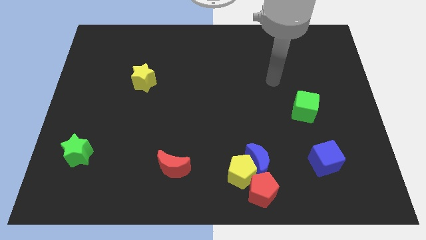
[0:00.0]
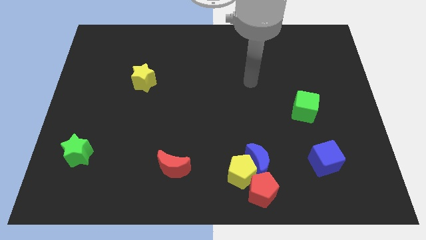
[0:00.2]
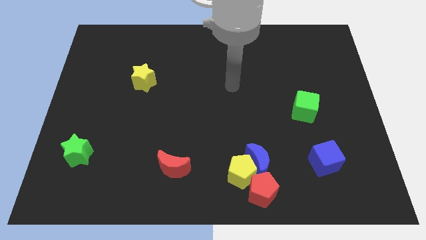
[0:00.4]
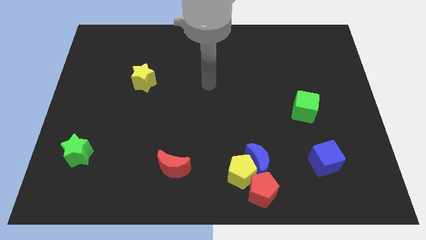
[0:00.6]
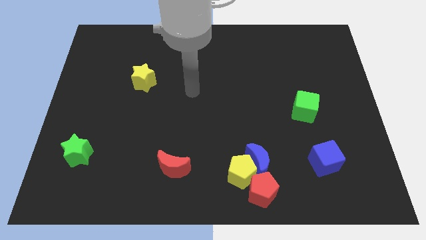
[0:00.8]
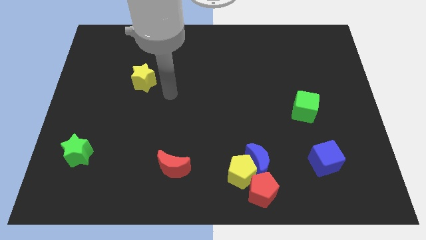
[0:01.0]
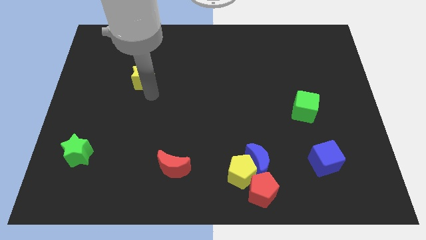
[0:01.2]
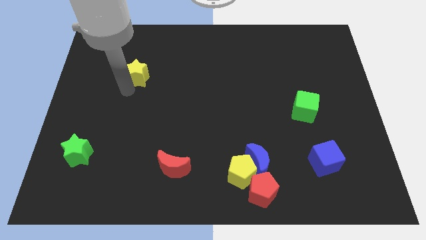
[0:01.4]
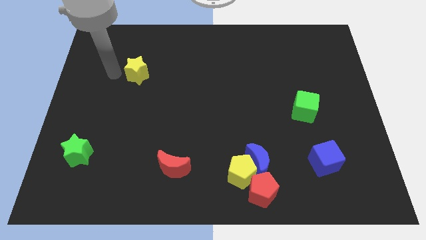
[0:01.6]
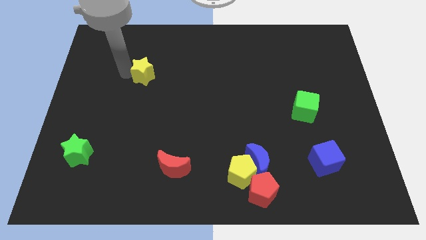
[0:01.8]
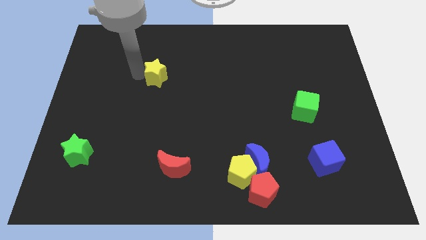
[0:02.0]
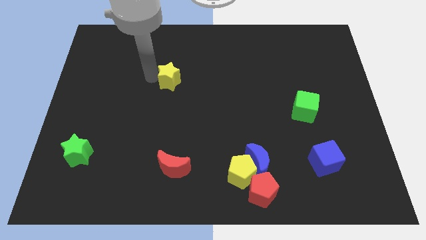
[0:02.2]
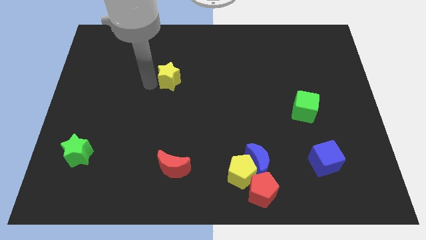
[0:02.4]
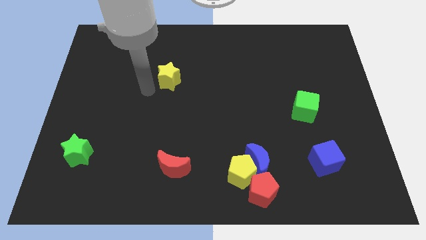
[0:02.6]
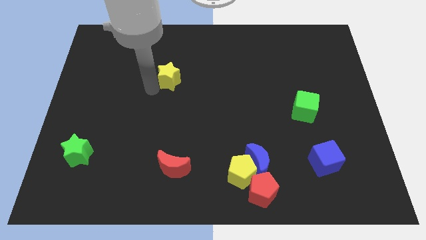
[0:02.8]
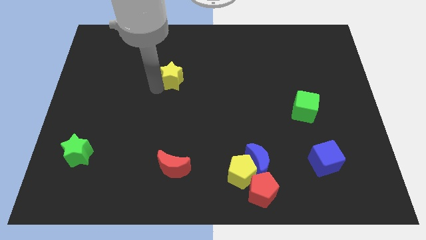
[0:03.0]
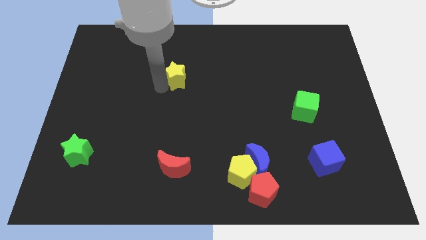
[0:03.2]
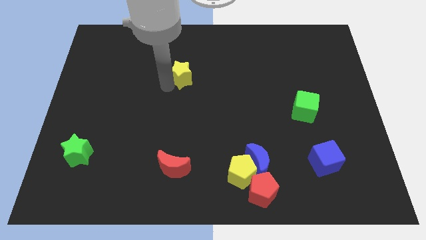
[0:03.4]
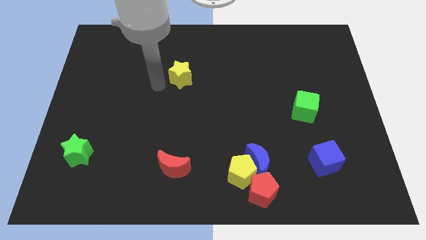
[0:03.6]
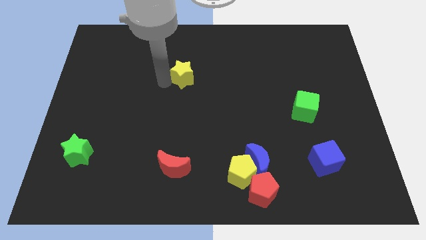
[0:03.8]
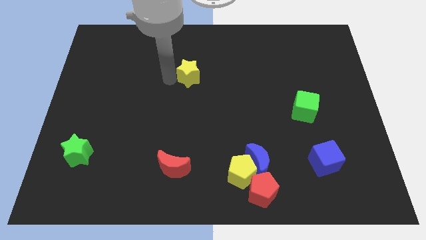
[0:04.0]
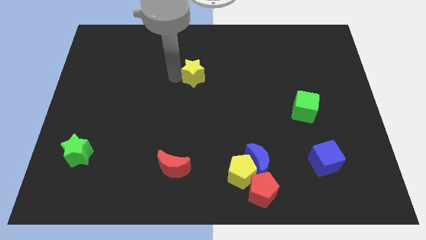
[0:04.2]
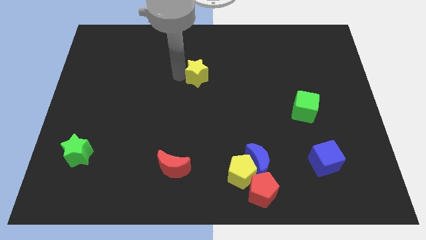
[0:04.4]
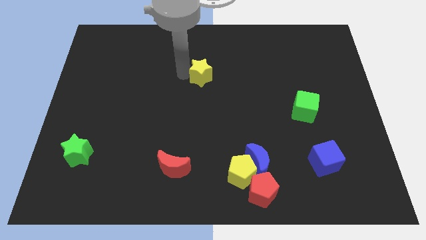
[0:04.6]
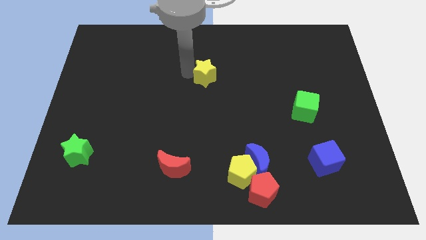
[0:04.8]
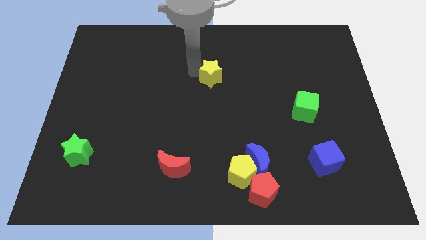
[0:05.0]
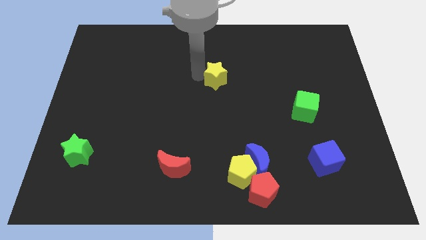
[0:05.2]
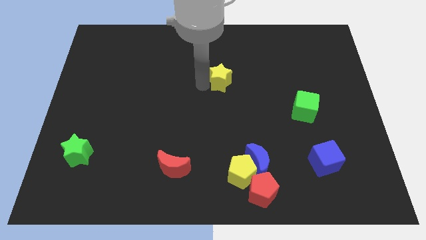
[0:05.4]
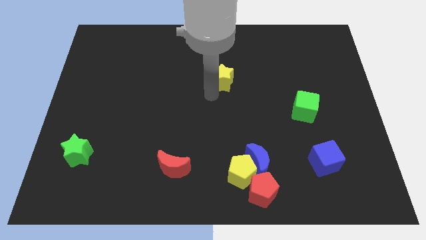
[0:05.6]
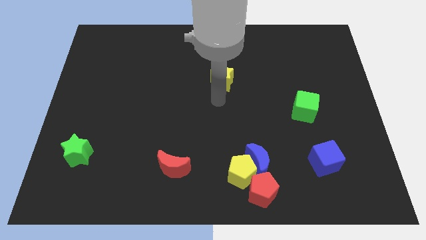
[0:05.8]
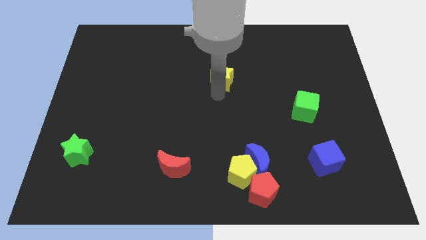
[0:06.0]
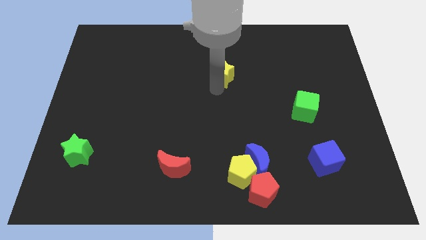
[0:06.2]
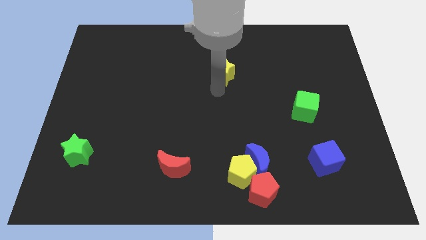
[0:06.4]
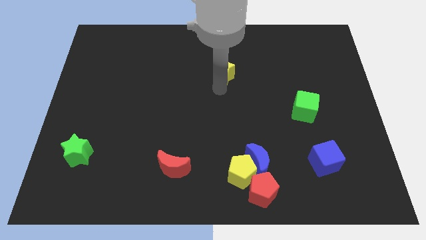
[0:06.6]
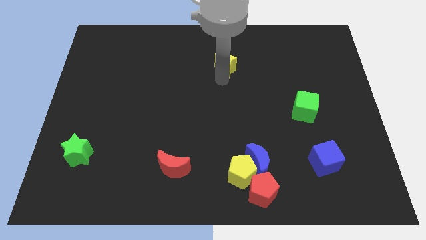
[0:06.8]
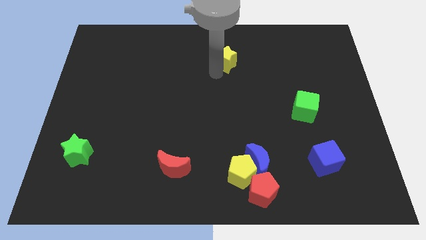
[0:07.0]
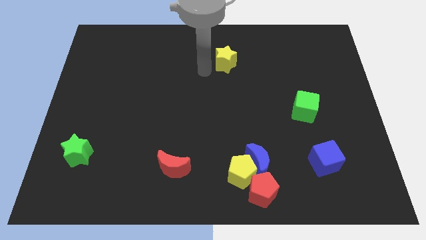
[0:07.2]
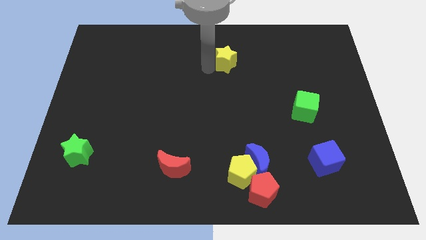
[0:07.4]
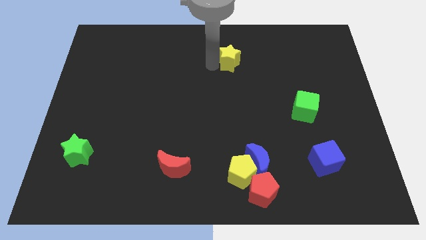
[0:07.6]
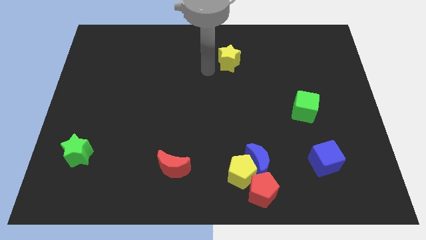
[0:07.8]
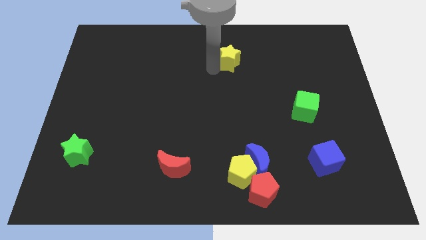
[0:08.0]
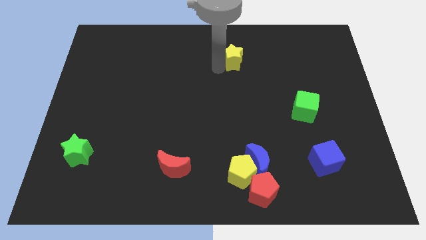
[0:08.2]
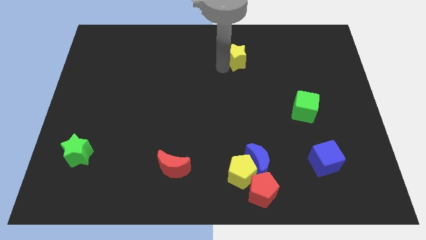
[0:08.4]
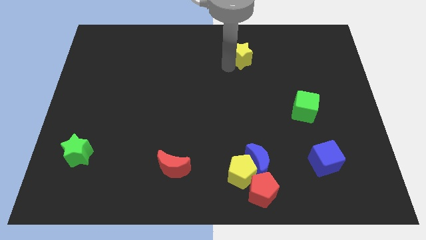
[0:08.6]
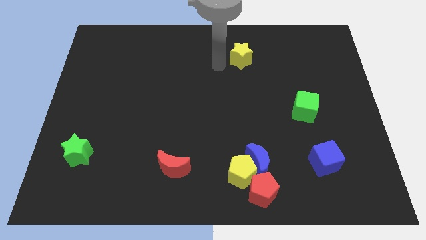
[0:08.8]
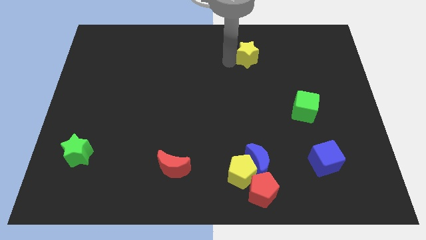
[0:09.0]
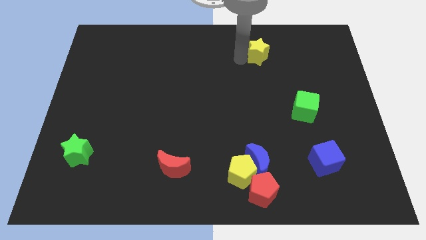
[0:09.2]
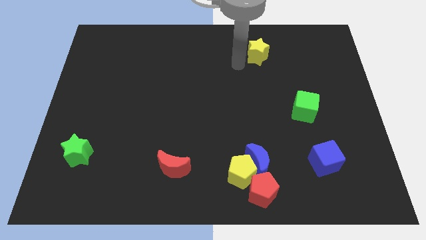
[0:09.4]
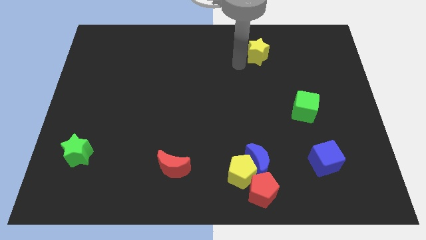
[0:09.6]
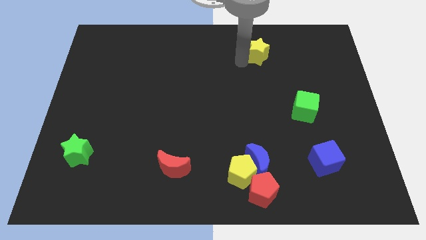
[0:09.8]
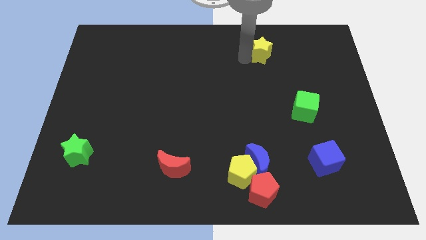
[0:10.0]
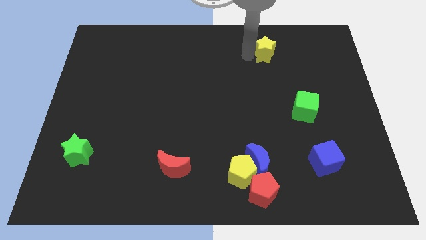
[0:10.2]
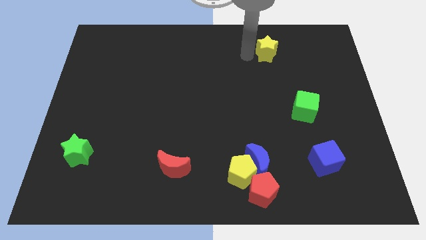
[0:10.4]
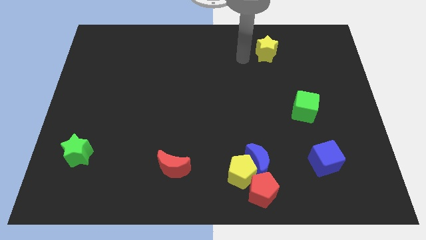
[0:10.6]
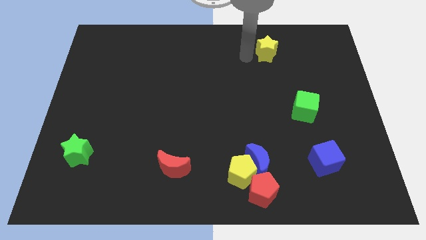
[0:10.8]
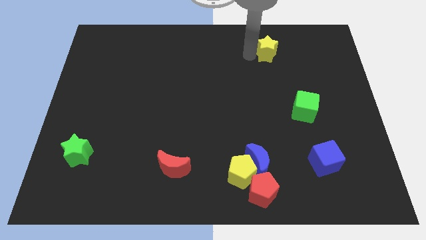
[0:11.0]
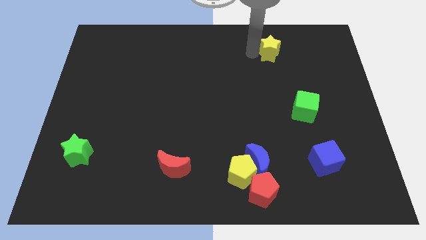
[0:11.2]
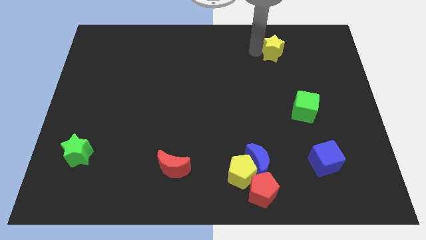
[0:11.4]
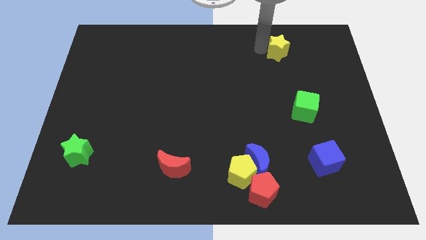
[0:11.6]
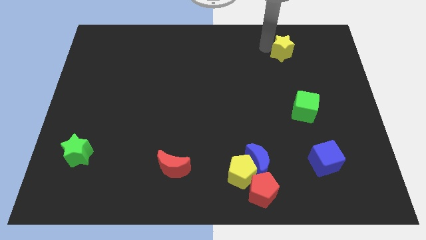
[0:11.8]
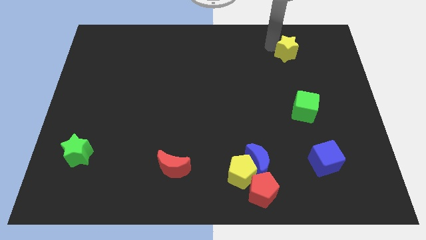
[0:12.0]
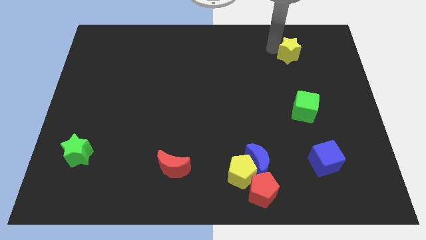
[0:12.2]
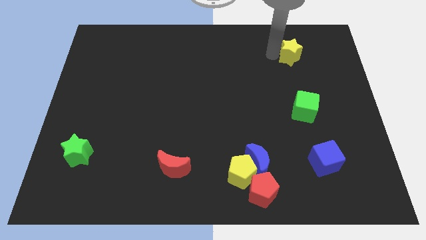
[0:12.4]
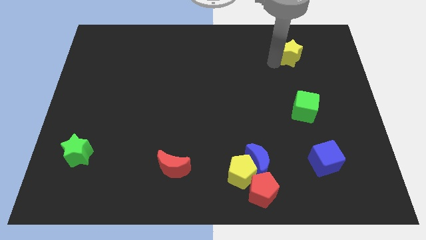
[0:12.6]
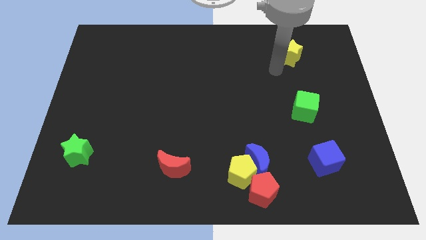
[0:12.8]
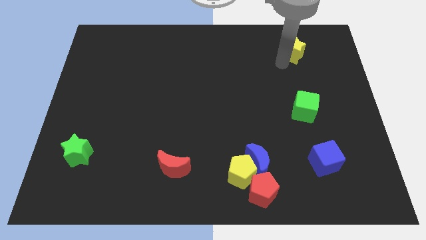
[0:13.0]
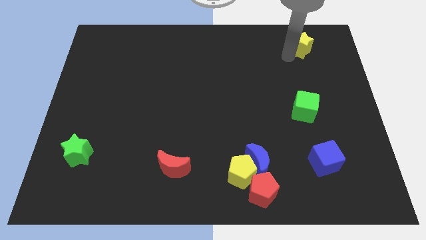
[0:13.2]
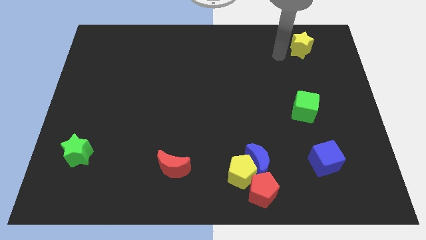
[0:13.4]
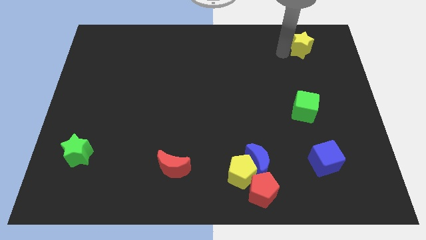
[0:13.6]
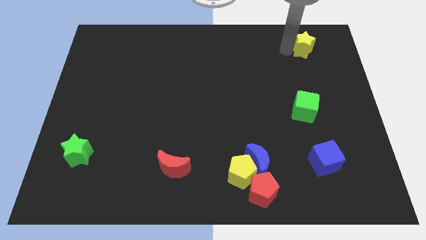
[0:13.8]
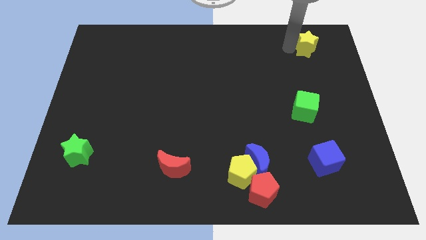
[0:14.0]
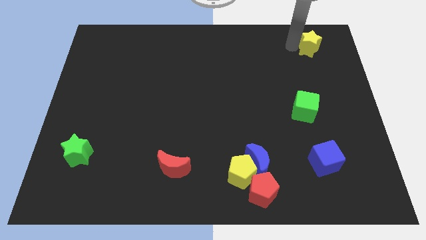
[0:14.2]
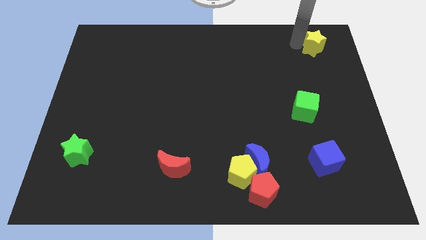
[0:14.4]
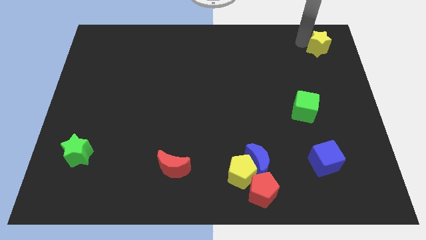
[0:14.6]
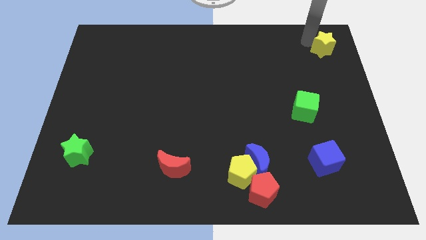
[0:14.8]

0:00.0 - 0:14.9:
move the yellow star to the top right of the board

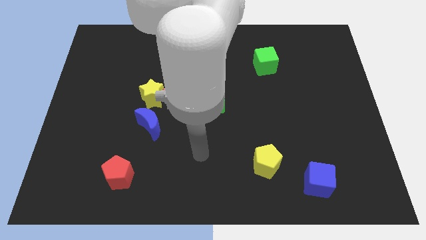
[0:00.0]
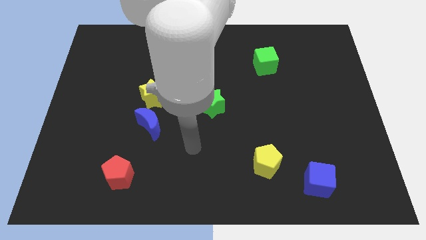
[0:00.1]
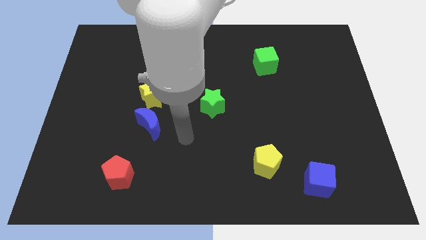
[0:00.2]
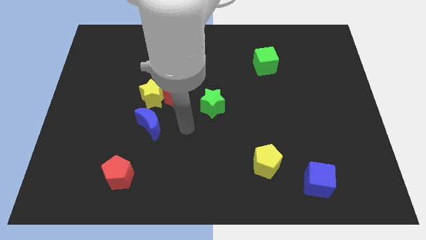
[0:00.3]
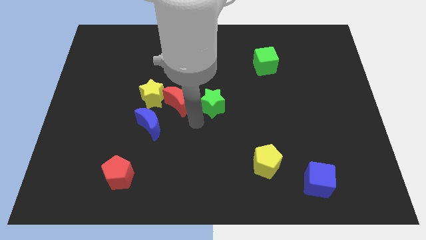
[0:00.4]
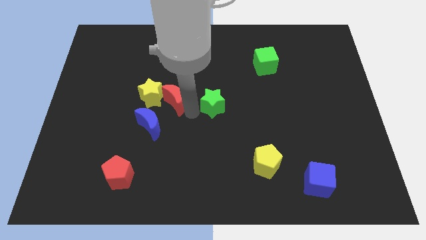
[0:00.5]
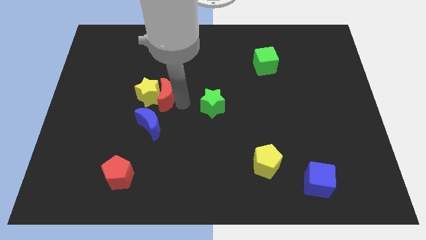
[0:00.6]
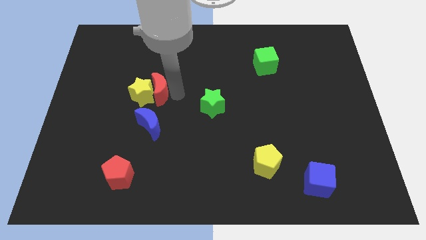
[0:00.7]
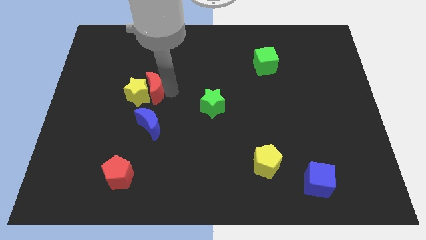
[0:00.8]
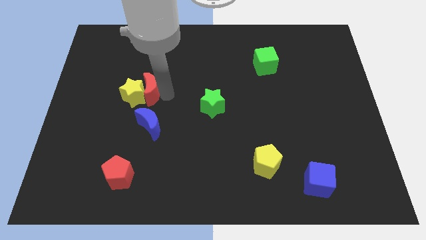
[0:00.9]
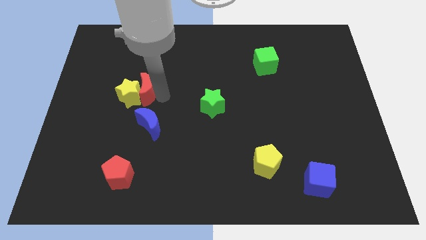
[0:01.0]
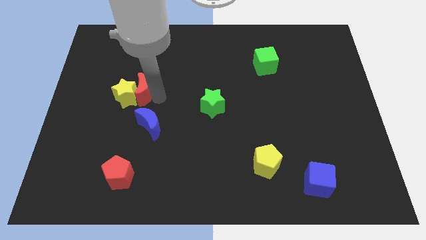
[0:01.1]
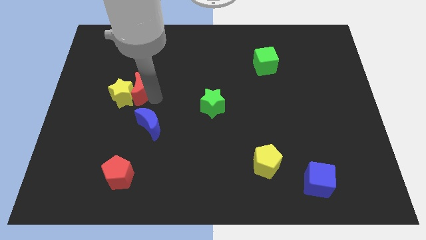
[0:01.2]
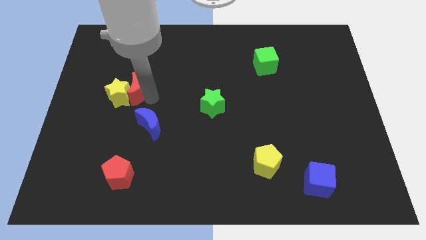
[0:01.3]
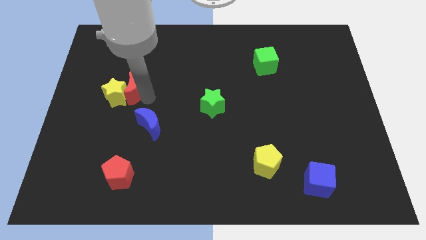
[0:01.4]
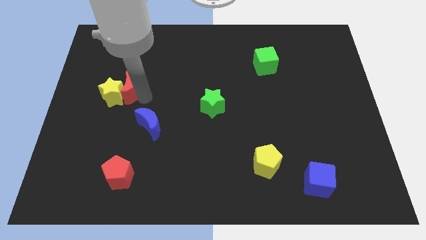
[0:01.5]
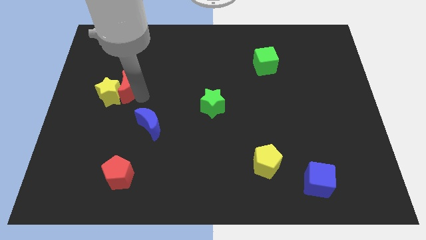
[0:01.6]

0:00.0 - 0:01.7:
put the yellow star to the left side of the board
